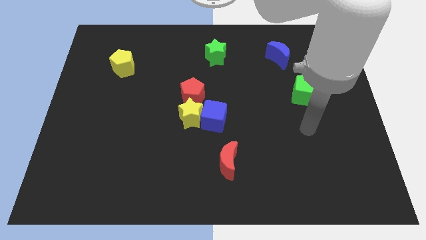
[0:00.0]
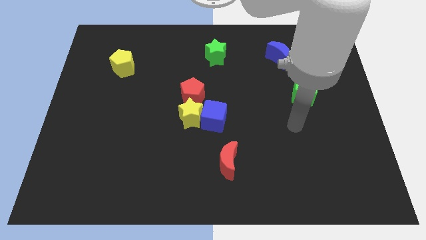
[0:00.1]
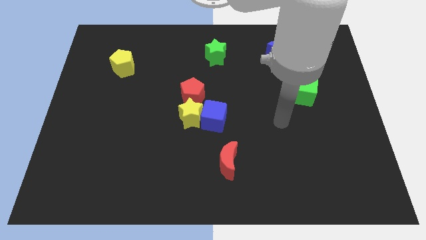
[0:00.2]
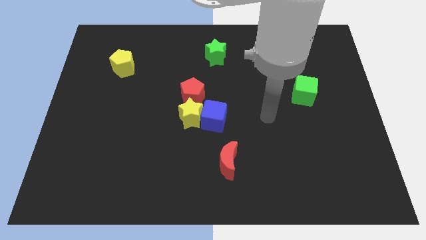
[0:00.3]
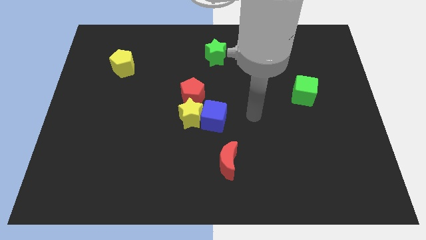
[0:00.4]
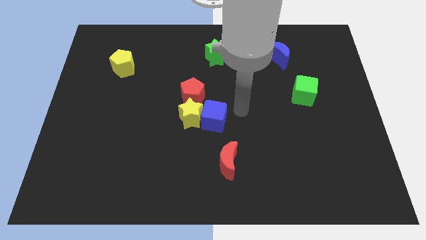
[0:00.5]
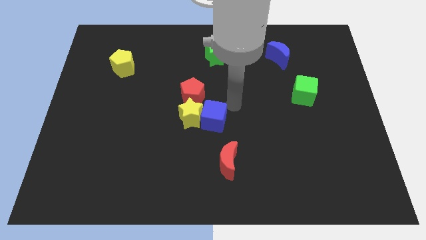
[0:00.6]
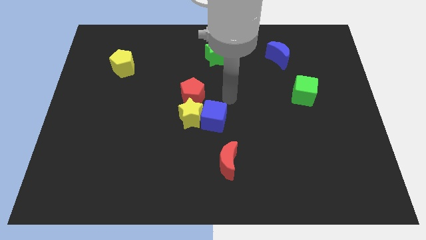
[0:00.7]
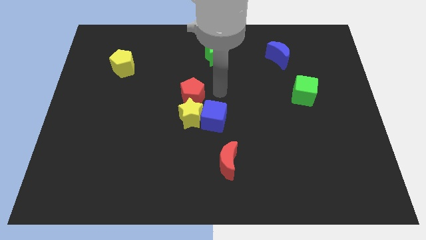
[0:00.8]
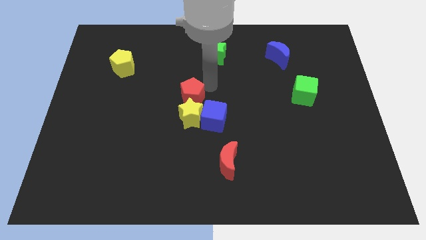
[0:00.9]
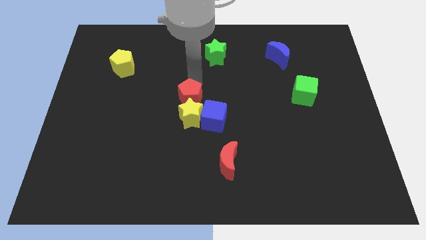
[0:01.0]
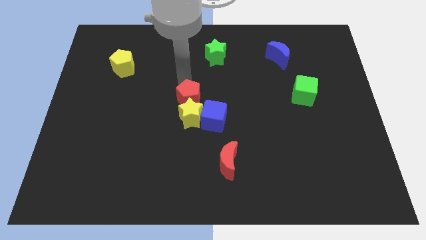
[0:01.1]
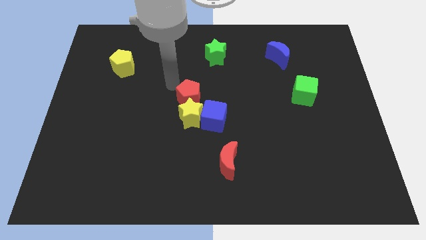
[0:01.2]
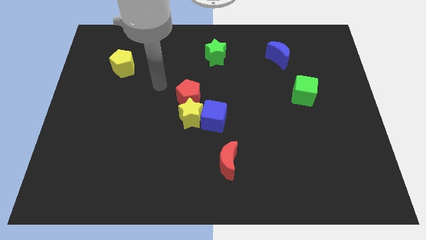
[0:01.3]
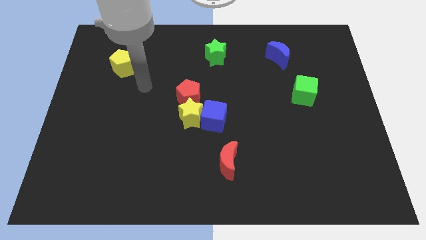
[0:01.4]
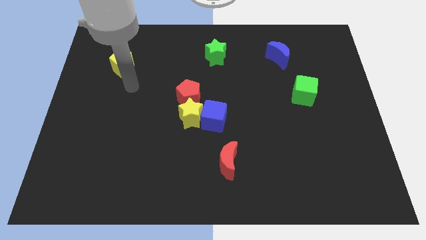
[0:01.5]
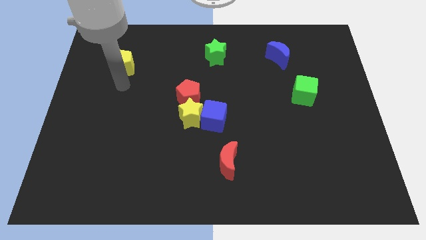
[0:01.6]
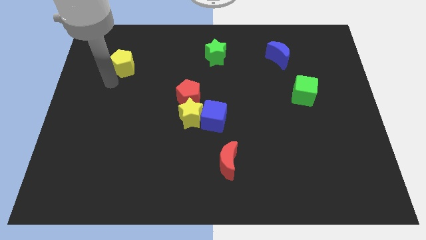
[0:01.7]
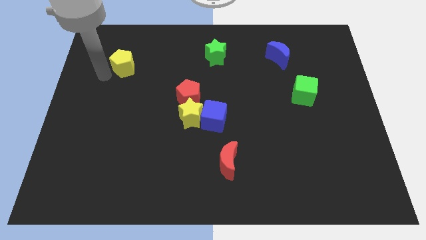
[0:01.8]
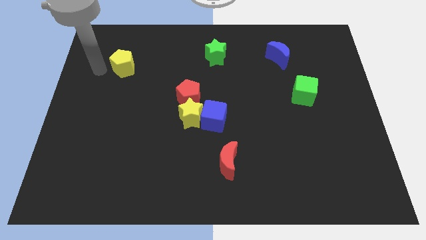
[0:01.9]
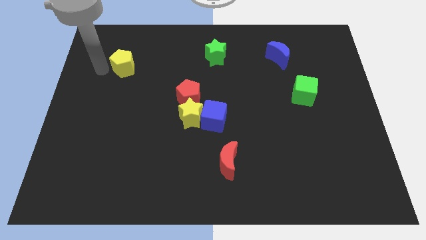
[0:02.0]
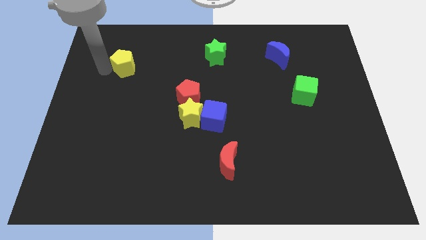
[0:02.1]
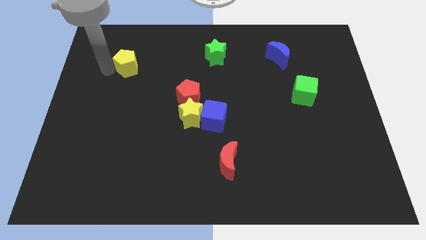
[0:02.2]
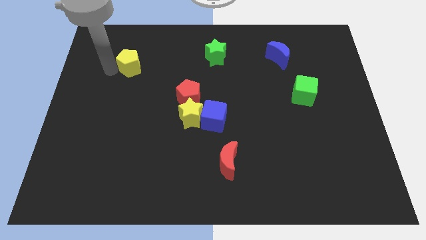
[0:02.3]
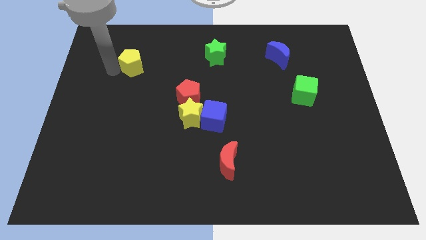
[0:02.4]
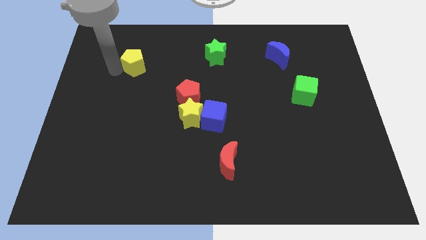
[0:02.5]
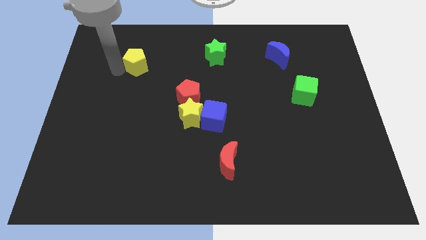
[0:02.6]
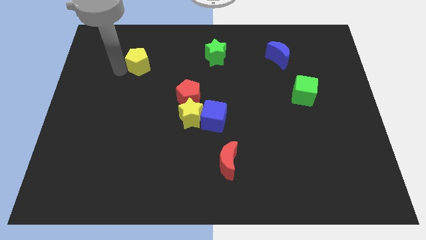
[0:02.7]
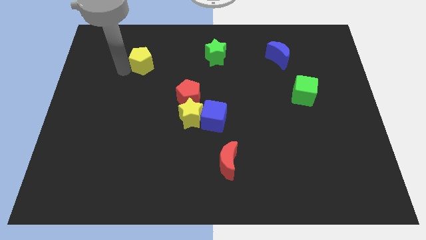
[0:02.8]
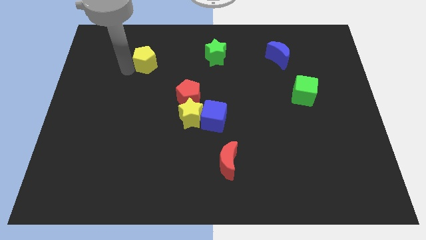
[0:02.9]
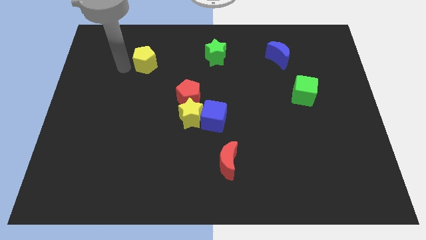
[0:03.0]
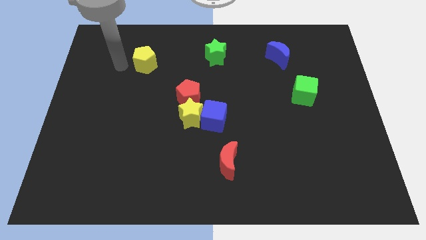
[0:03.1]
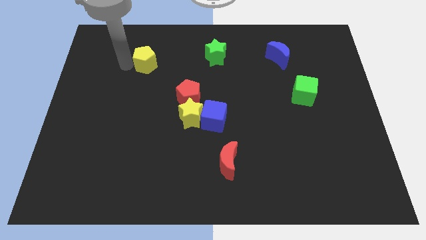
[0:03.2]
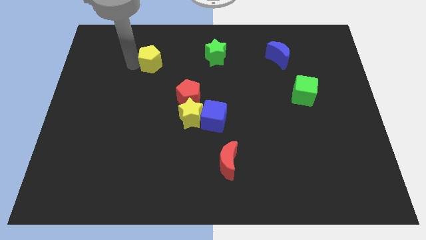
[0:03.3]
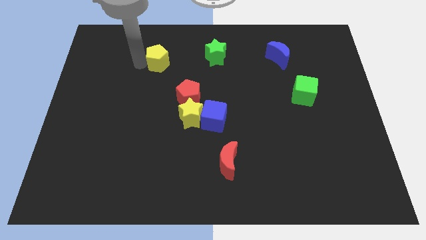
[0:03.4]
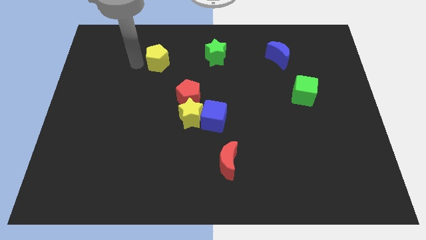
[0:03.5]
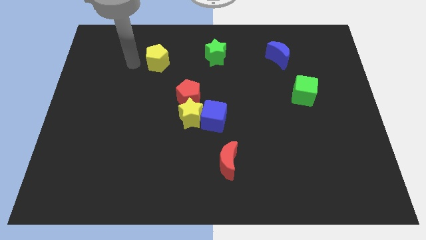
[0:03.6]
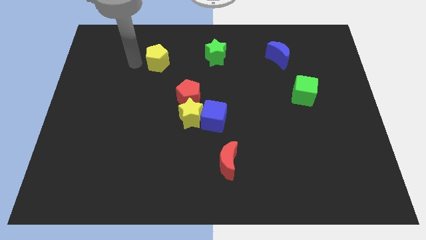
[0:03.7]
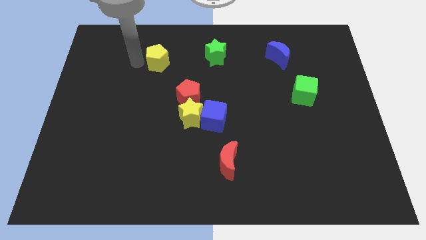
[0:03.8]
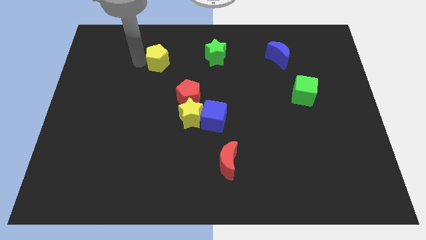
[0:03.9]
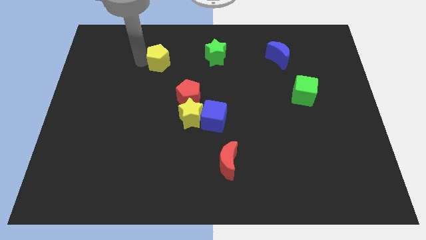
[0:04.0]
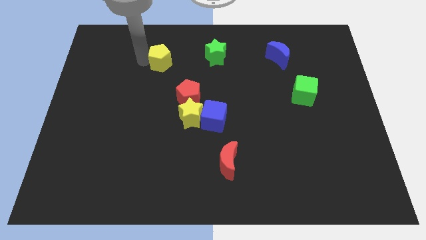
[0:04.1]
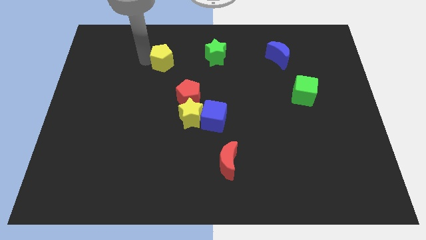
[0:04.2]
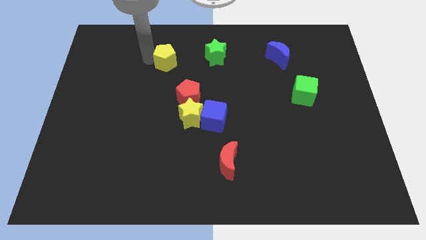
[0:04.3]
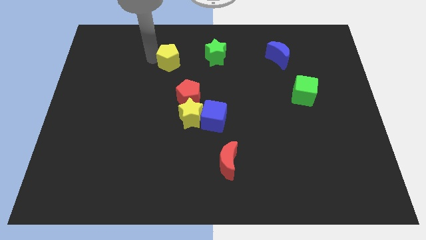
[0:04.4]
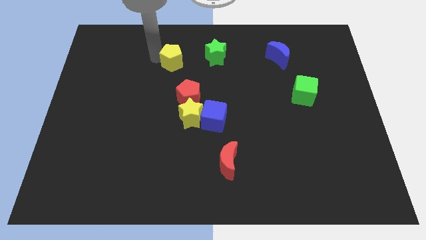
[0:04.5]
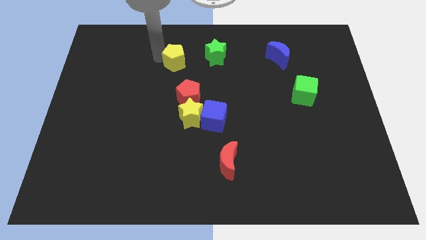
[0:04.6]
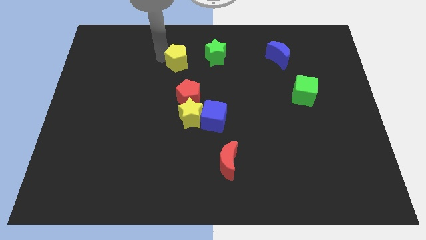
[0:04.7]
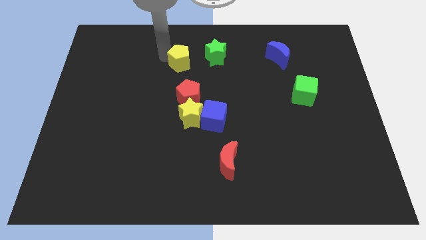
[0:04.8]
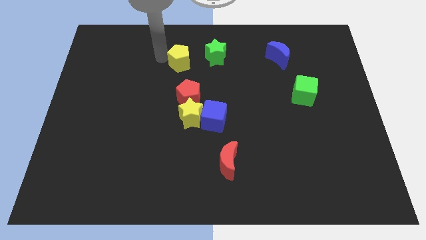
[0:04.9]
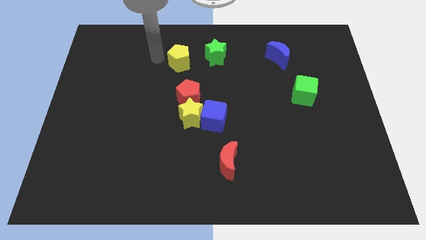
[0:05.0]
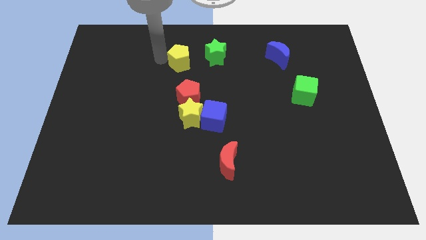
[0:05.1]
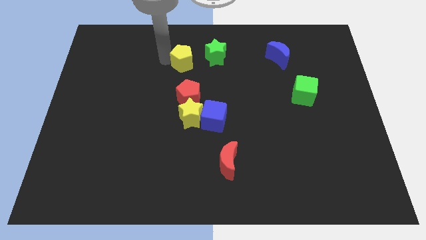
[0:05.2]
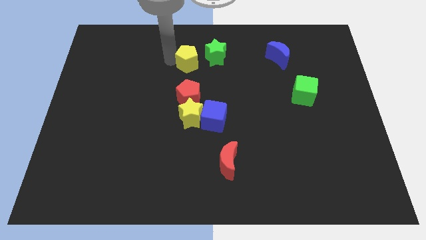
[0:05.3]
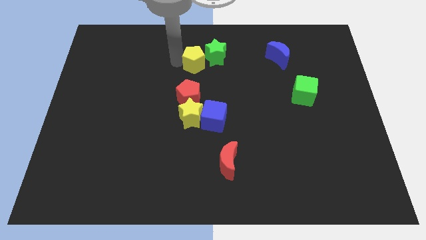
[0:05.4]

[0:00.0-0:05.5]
slide the yellow pentagon close to the green star

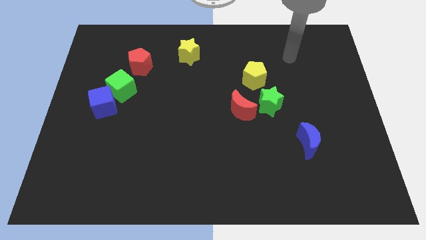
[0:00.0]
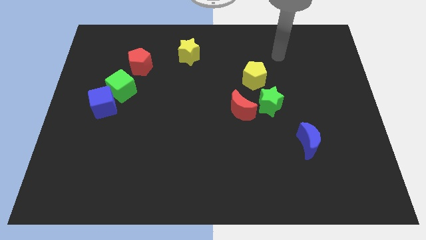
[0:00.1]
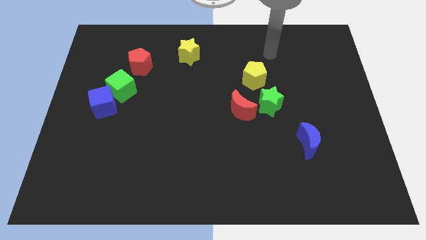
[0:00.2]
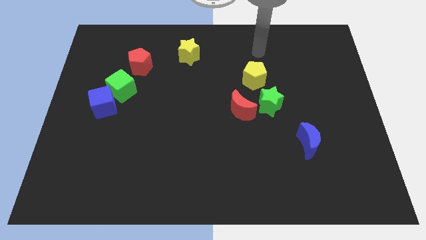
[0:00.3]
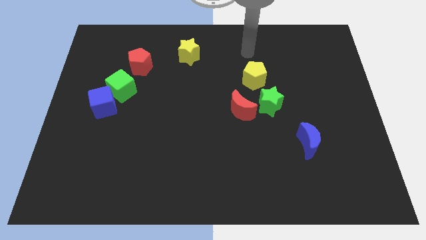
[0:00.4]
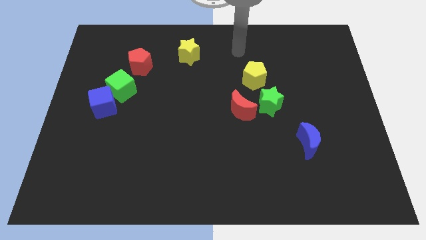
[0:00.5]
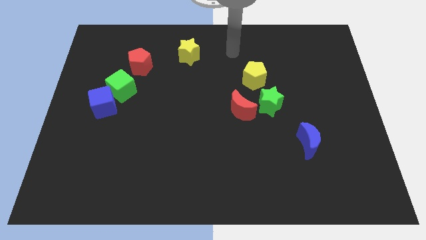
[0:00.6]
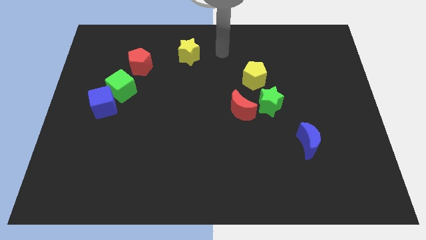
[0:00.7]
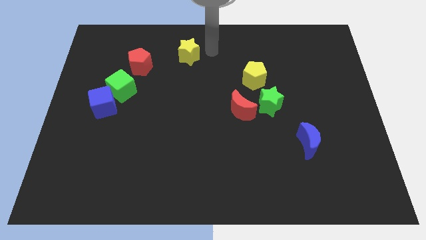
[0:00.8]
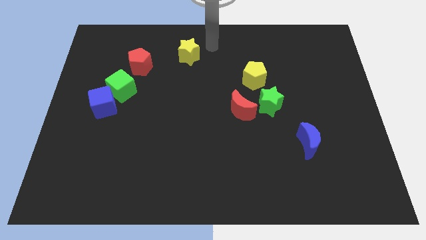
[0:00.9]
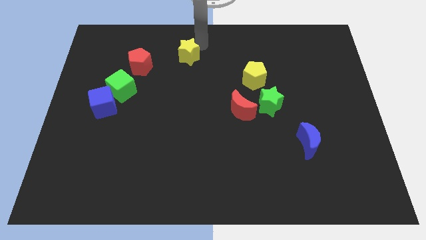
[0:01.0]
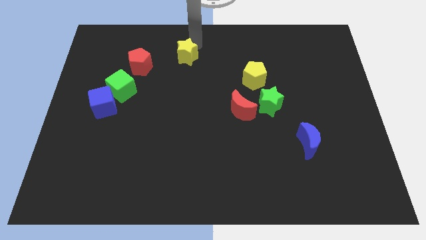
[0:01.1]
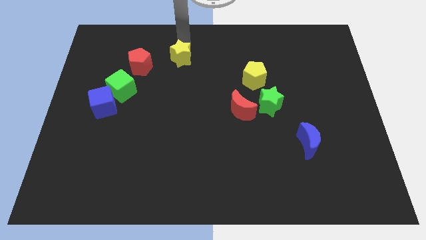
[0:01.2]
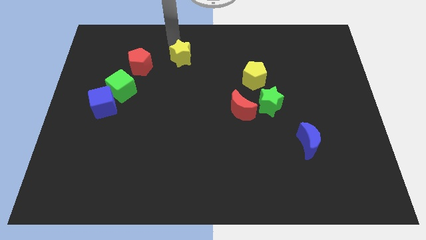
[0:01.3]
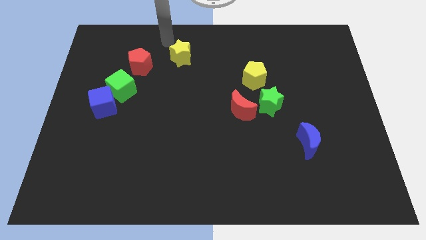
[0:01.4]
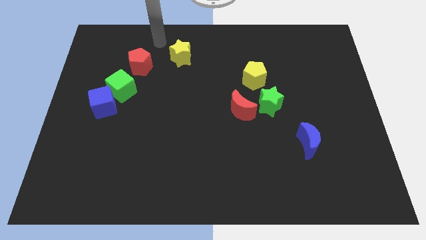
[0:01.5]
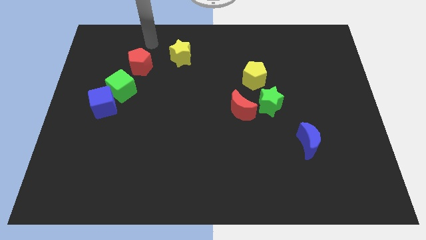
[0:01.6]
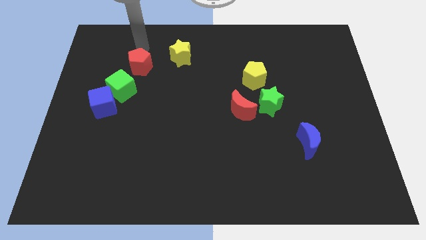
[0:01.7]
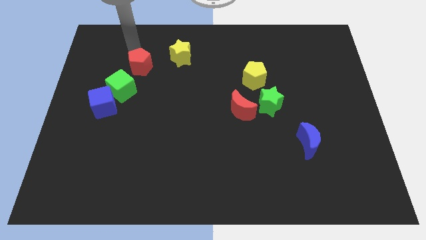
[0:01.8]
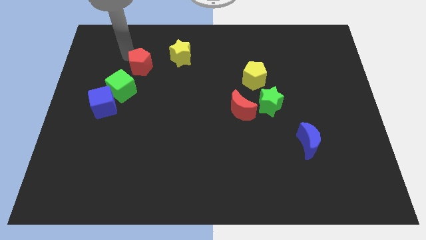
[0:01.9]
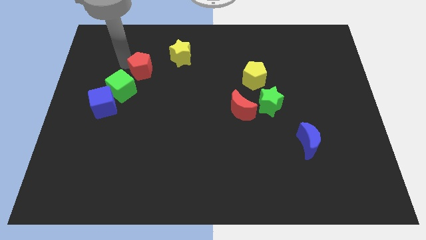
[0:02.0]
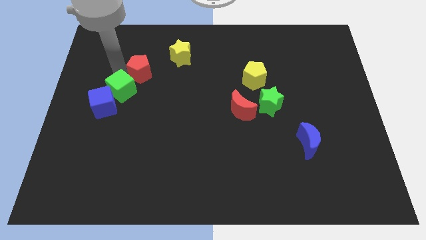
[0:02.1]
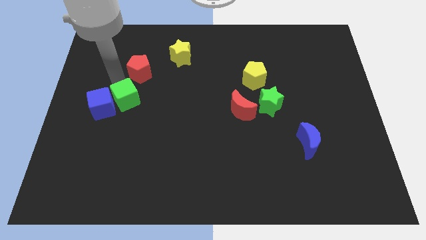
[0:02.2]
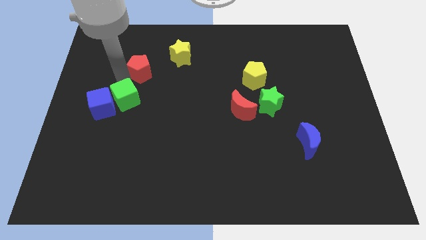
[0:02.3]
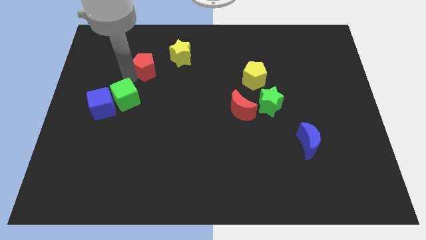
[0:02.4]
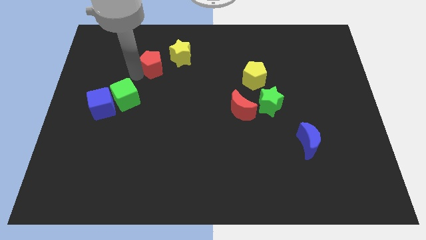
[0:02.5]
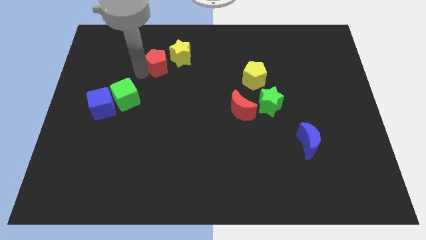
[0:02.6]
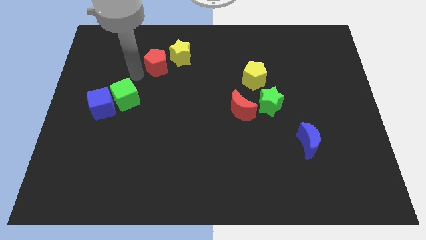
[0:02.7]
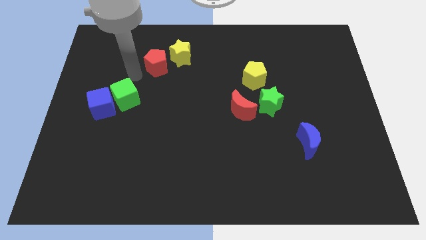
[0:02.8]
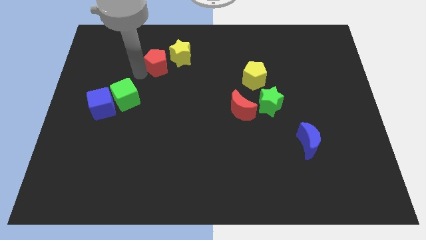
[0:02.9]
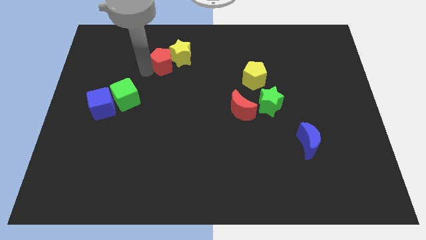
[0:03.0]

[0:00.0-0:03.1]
put the red pentagon towards the yellow star
